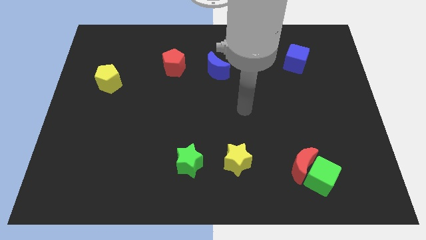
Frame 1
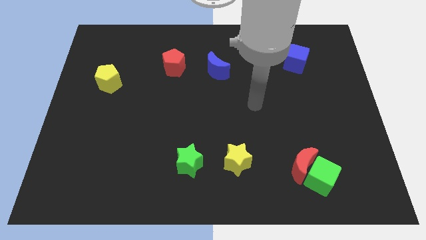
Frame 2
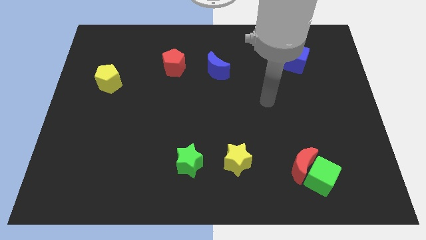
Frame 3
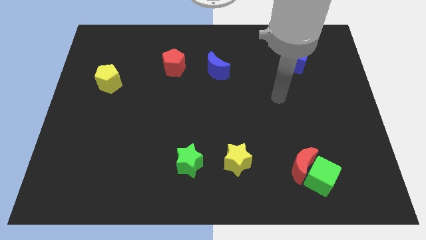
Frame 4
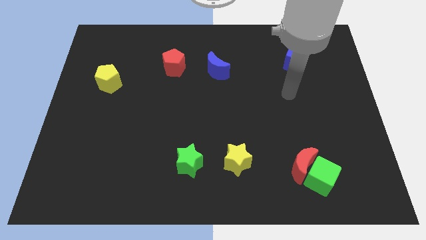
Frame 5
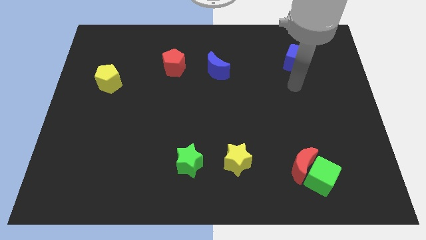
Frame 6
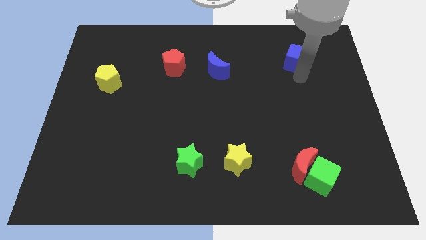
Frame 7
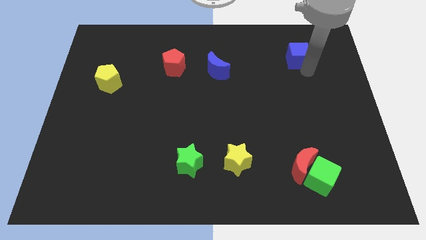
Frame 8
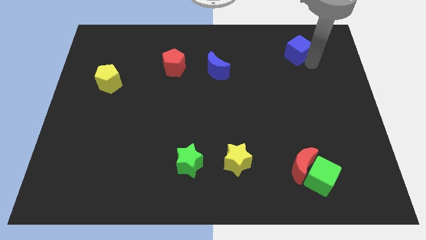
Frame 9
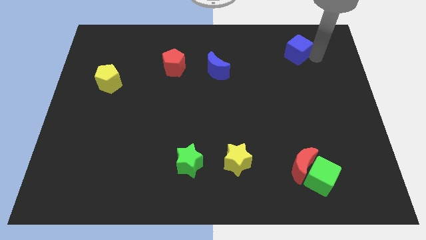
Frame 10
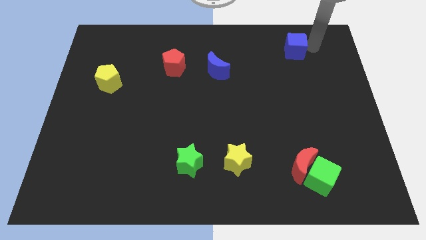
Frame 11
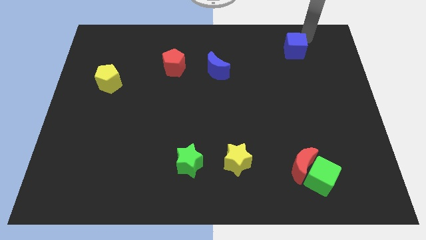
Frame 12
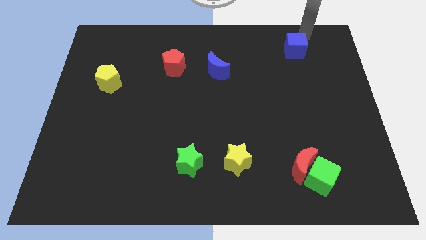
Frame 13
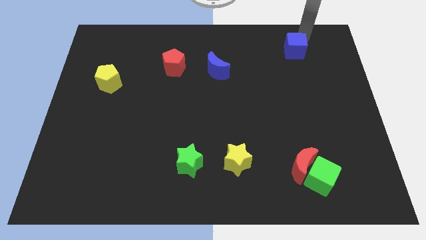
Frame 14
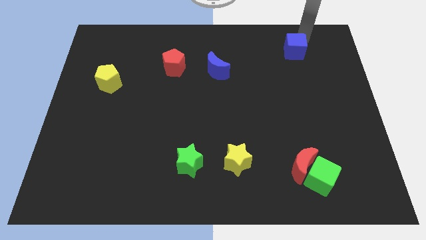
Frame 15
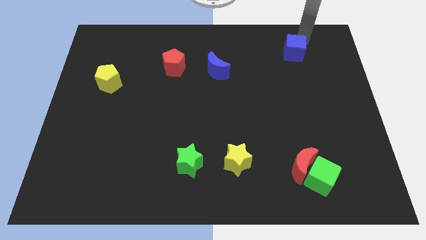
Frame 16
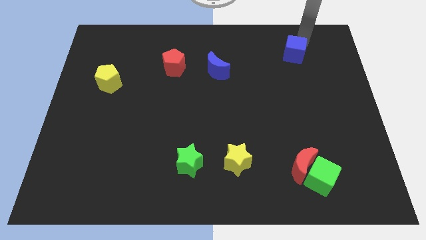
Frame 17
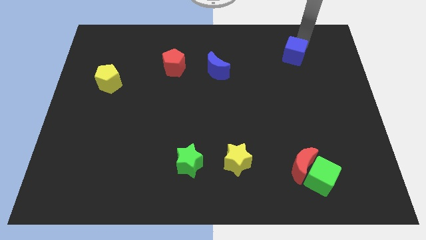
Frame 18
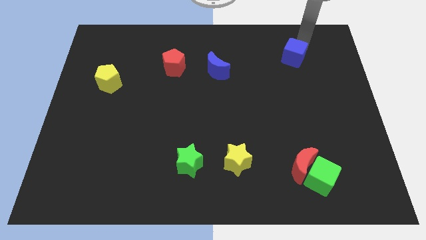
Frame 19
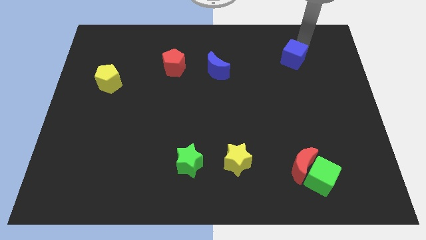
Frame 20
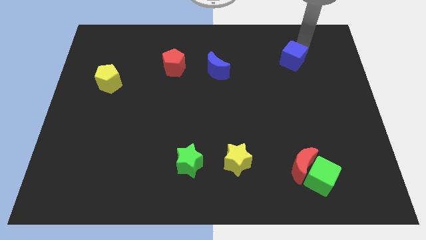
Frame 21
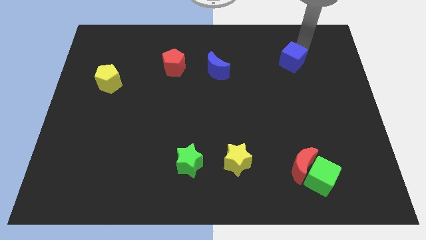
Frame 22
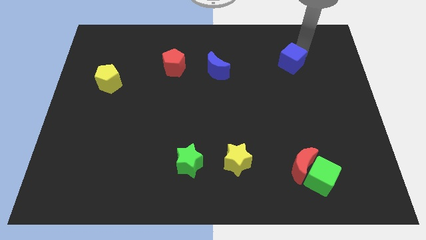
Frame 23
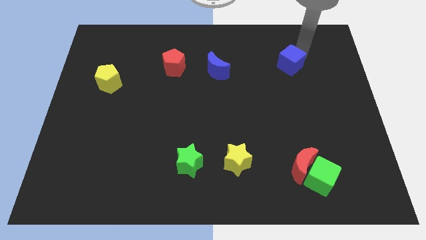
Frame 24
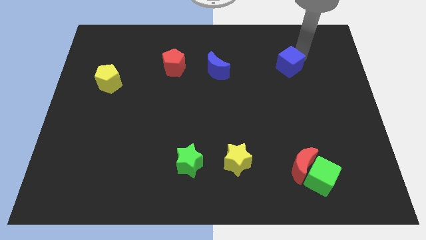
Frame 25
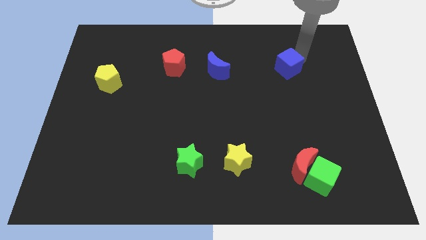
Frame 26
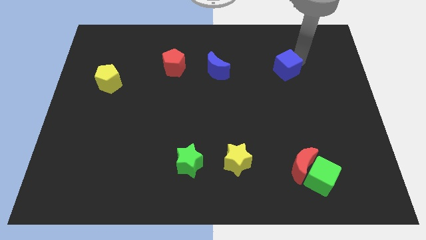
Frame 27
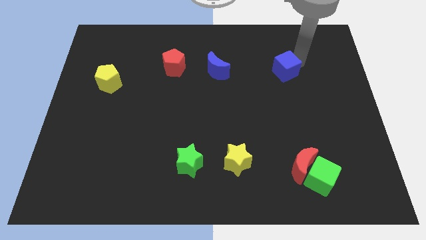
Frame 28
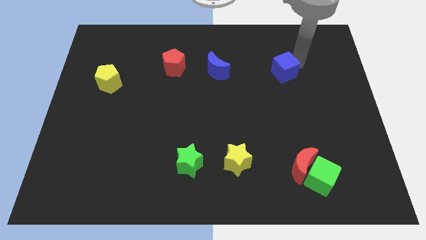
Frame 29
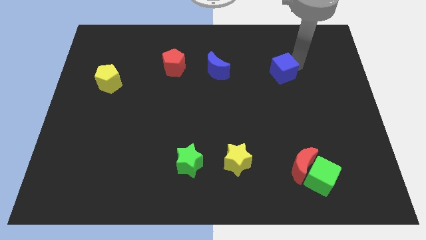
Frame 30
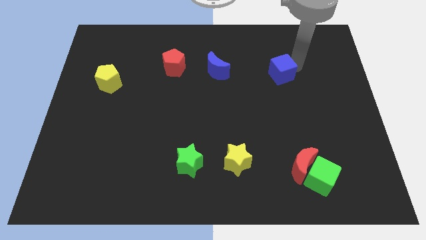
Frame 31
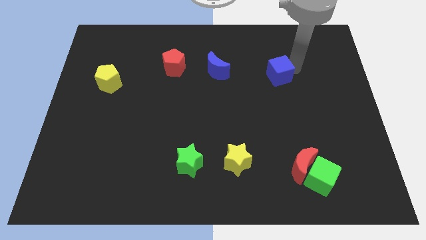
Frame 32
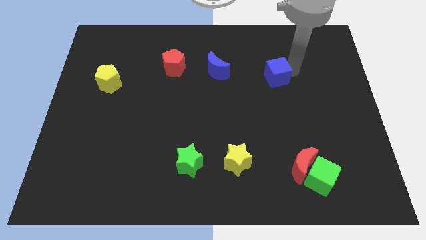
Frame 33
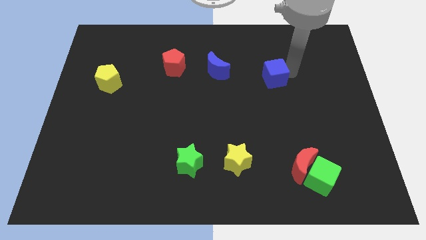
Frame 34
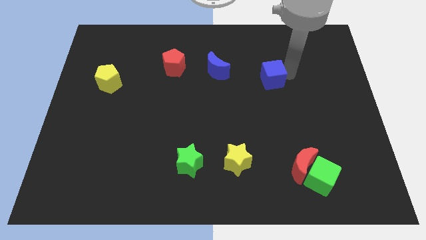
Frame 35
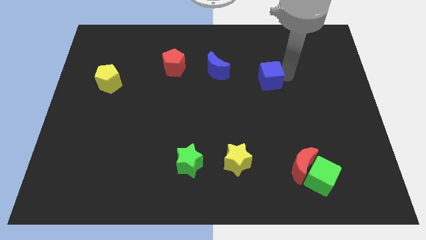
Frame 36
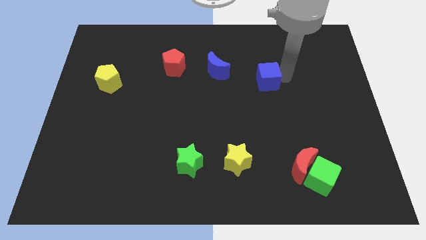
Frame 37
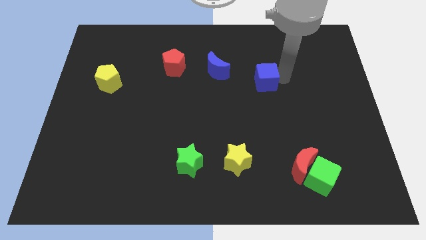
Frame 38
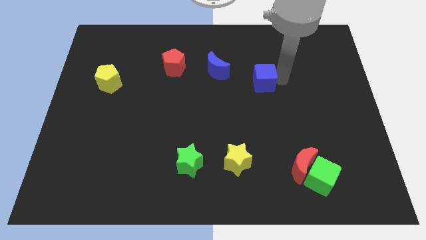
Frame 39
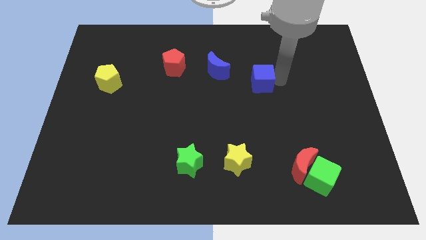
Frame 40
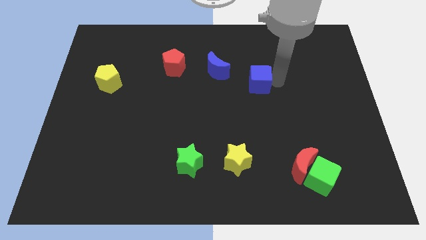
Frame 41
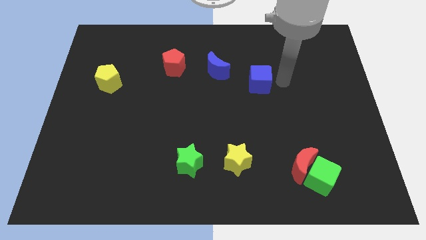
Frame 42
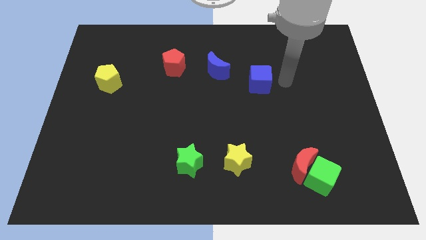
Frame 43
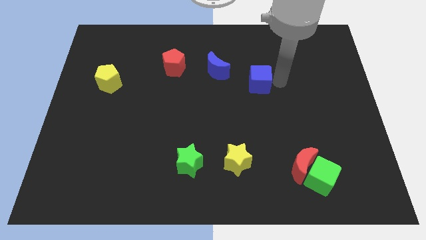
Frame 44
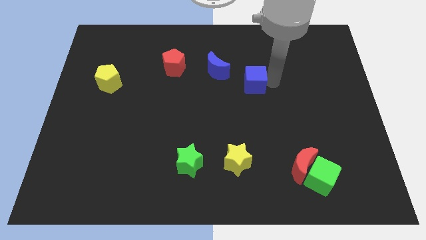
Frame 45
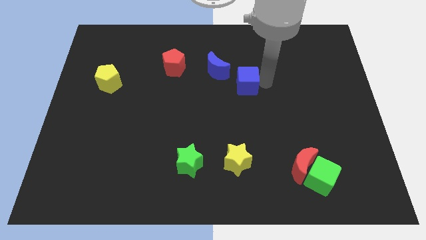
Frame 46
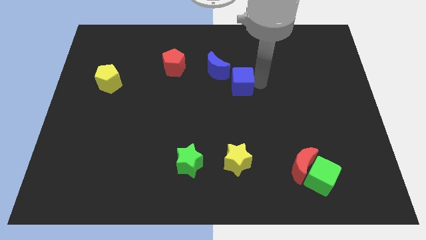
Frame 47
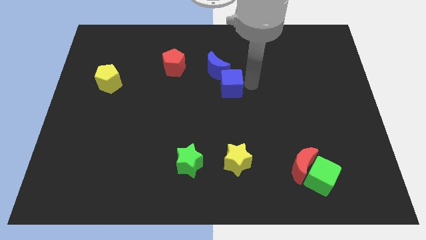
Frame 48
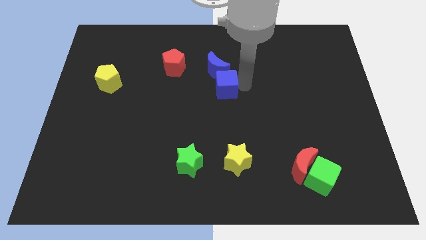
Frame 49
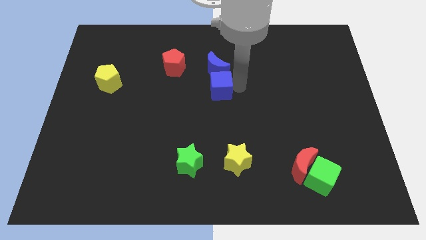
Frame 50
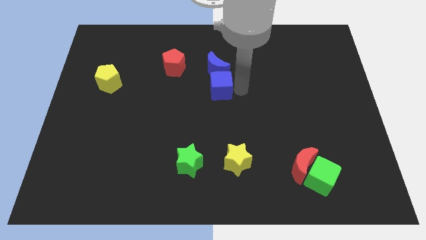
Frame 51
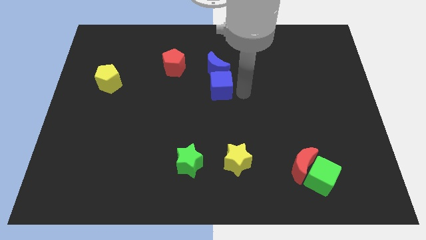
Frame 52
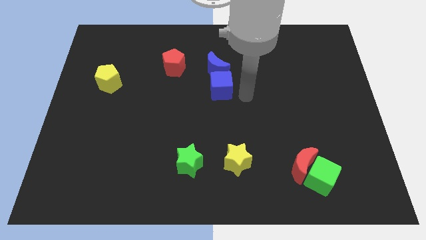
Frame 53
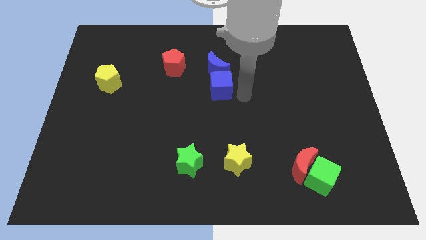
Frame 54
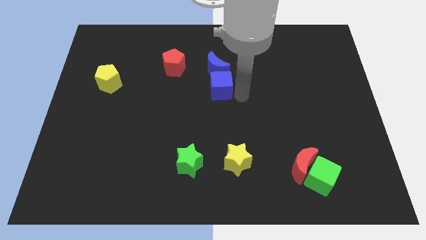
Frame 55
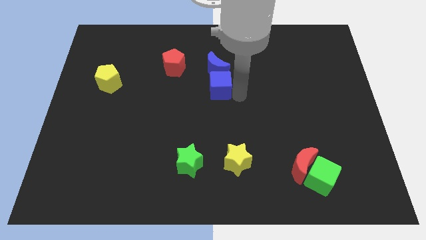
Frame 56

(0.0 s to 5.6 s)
move the blue cube to the bottom left side of the blue moon

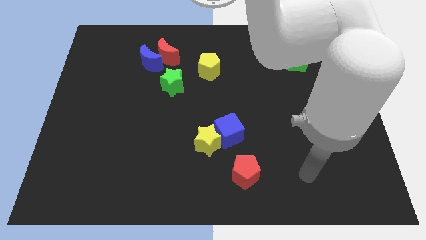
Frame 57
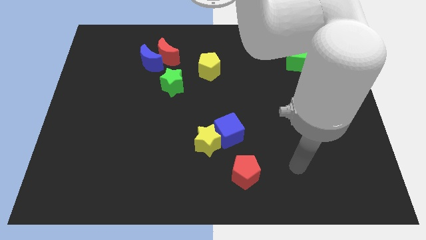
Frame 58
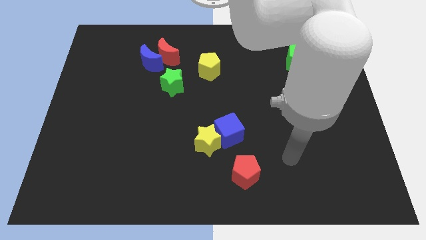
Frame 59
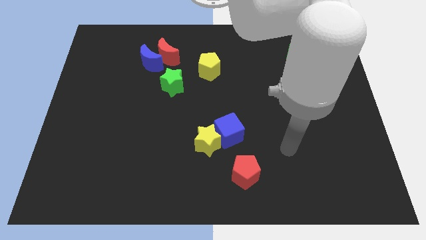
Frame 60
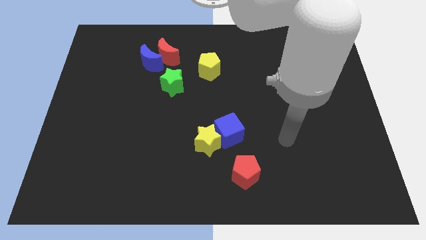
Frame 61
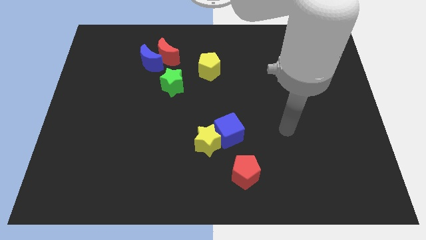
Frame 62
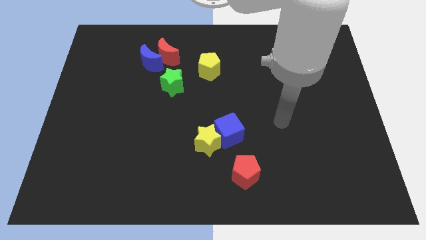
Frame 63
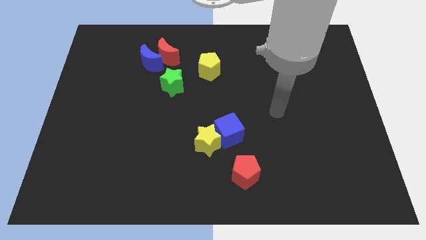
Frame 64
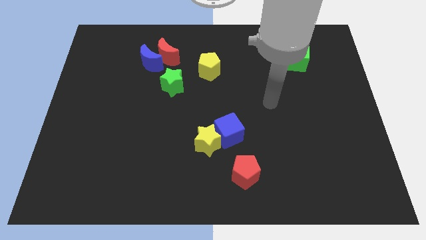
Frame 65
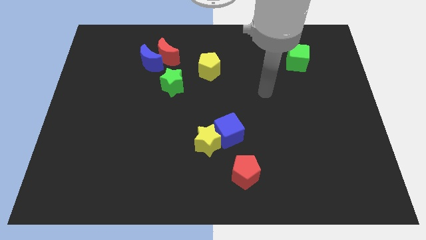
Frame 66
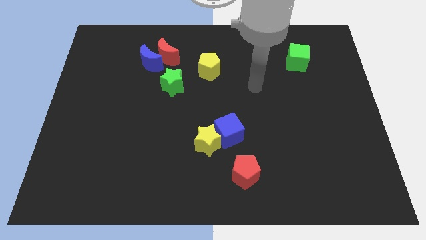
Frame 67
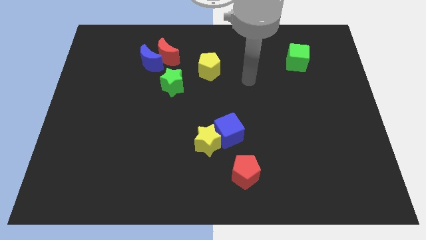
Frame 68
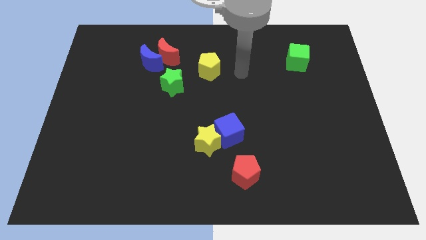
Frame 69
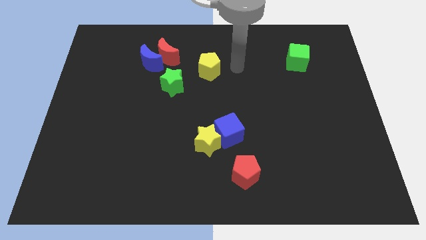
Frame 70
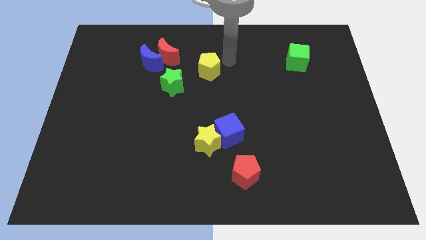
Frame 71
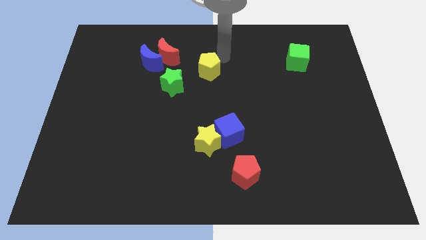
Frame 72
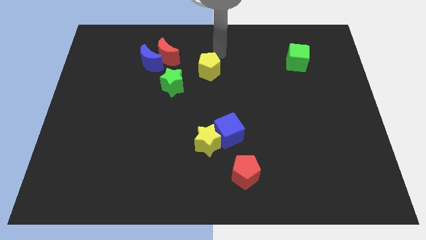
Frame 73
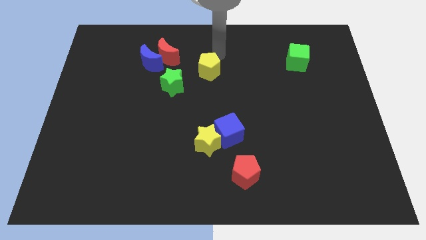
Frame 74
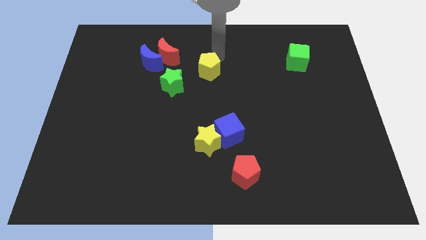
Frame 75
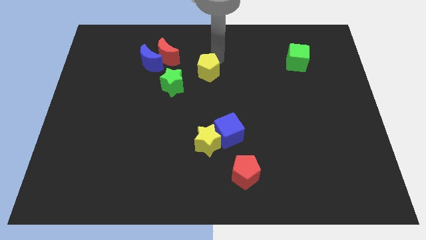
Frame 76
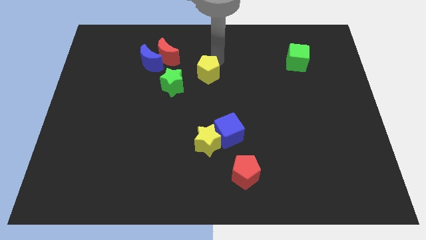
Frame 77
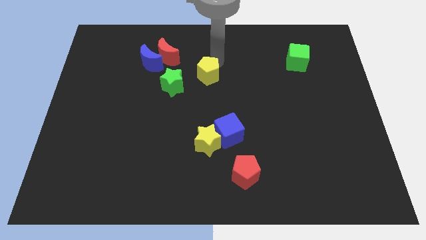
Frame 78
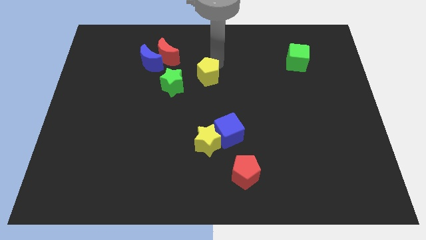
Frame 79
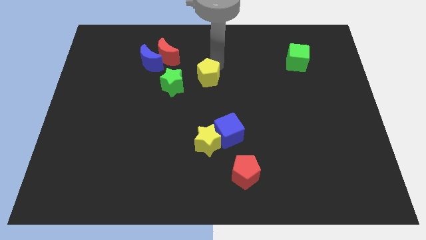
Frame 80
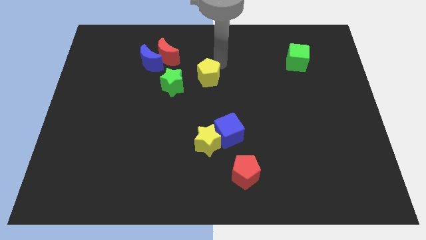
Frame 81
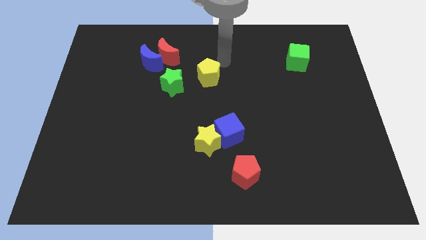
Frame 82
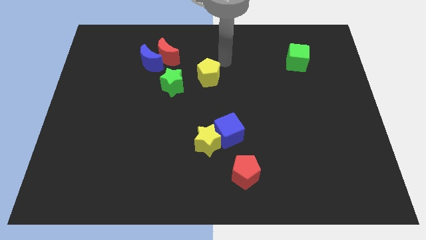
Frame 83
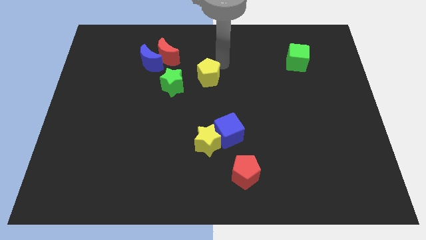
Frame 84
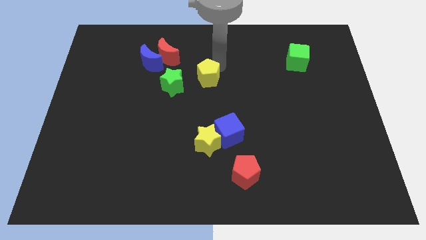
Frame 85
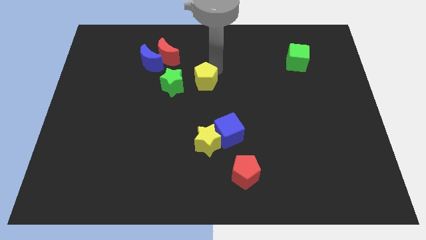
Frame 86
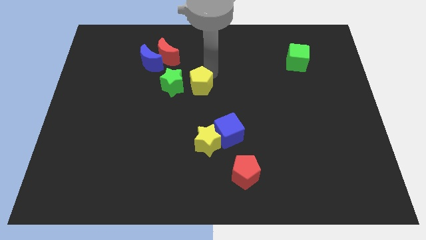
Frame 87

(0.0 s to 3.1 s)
slide the yellow pentagon diagonally down and to the right of the green star
